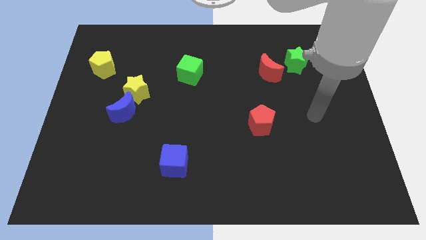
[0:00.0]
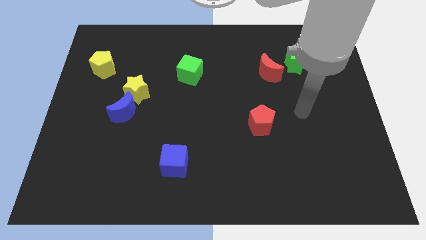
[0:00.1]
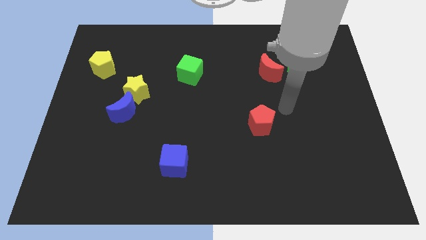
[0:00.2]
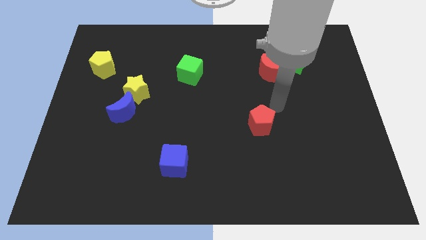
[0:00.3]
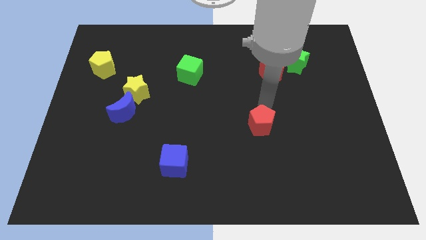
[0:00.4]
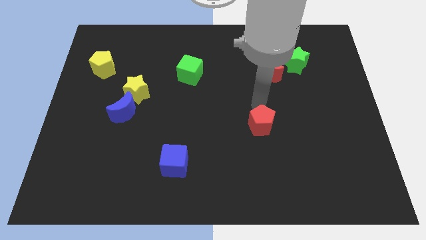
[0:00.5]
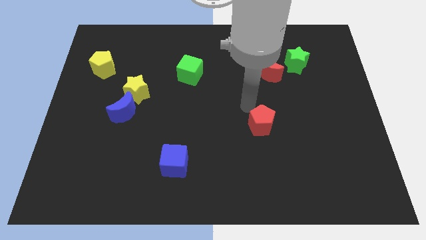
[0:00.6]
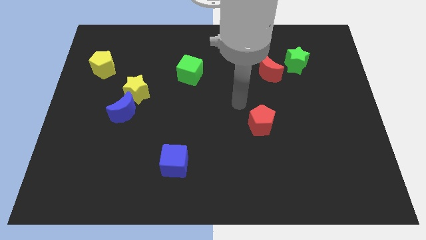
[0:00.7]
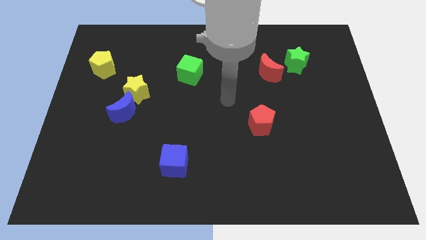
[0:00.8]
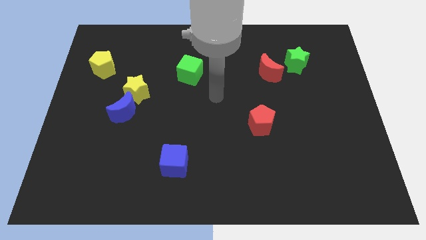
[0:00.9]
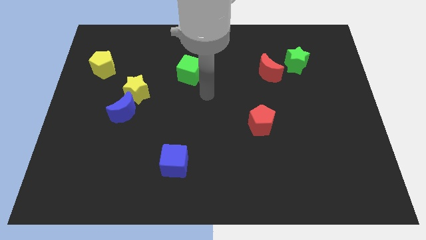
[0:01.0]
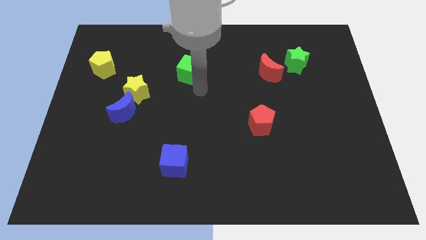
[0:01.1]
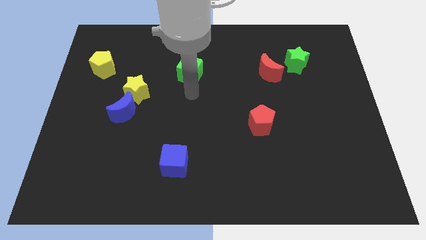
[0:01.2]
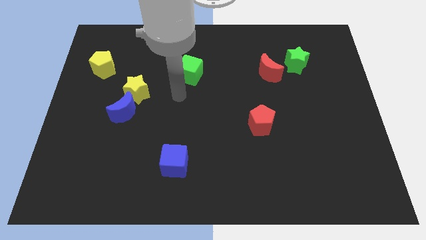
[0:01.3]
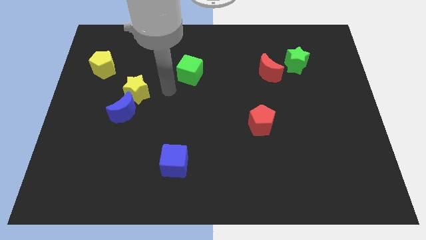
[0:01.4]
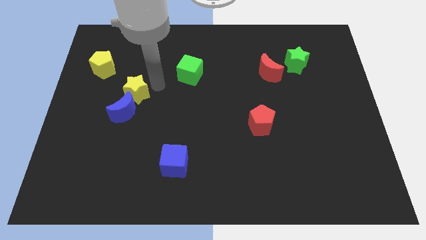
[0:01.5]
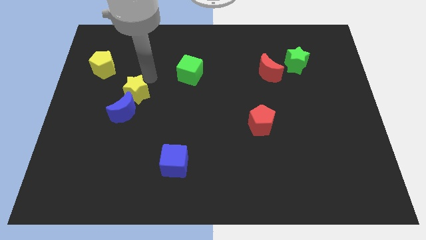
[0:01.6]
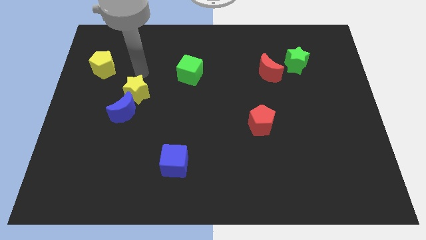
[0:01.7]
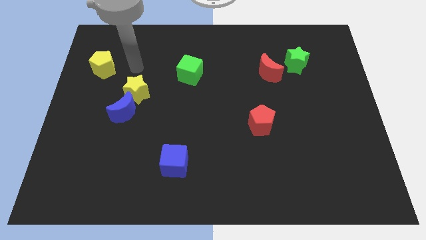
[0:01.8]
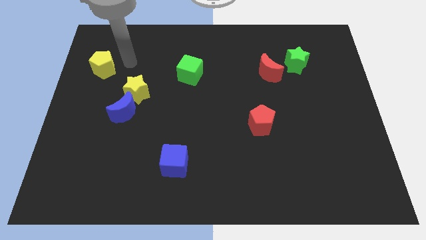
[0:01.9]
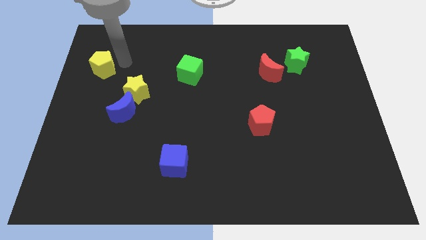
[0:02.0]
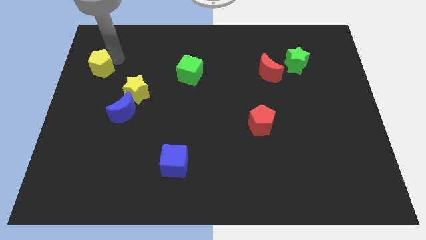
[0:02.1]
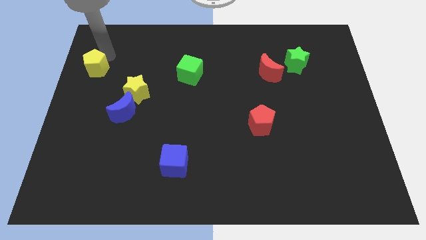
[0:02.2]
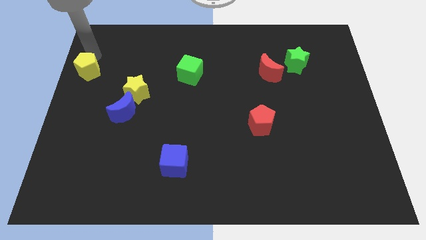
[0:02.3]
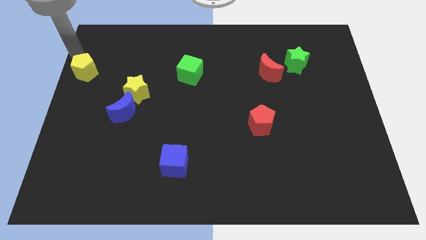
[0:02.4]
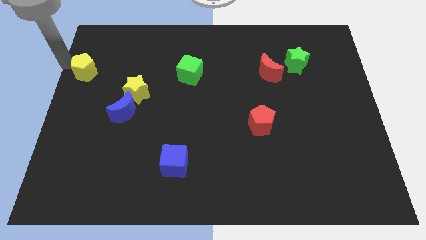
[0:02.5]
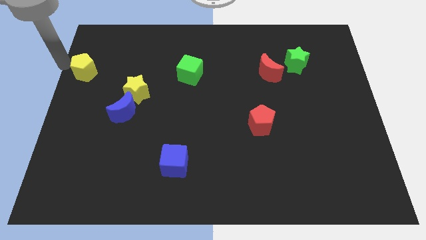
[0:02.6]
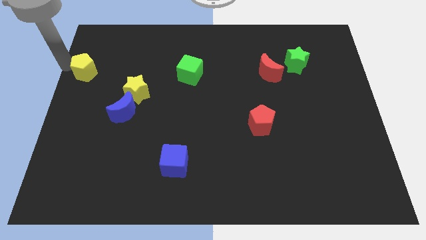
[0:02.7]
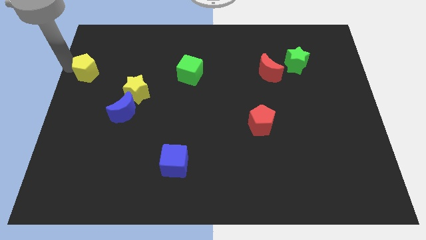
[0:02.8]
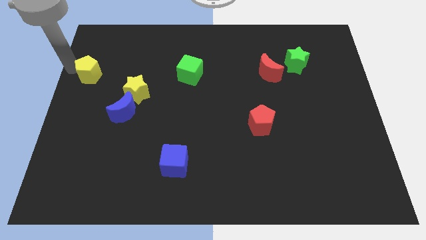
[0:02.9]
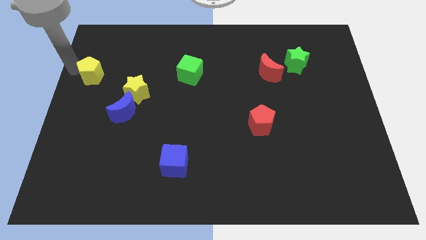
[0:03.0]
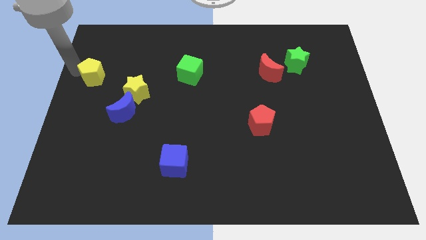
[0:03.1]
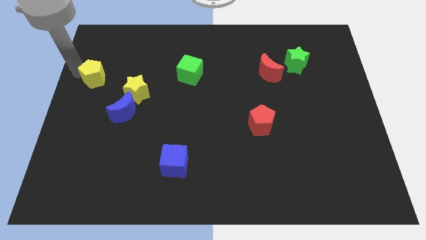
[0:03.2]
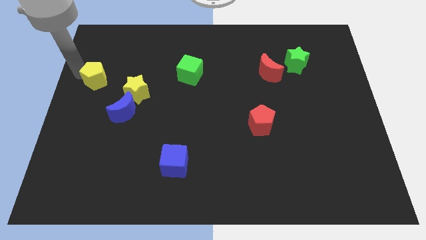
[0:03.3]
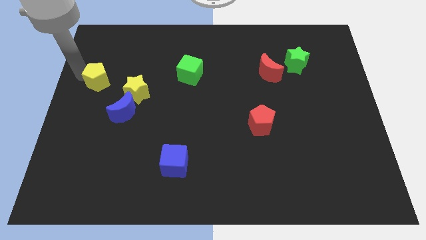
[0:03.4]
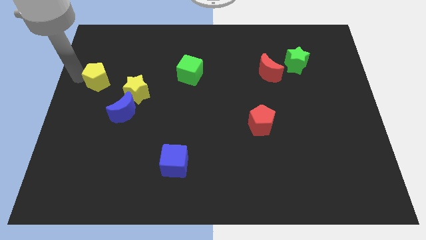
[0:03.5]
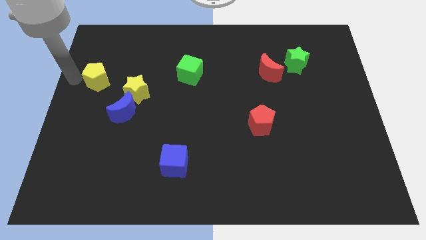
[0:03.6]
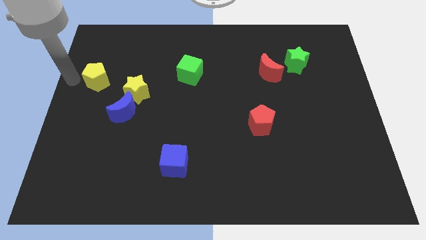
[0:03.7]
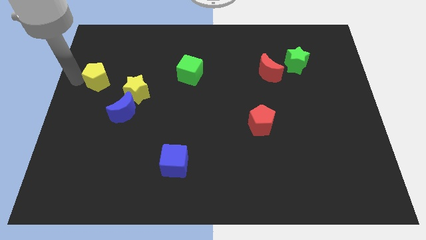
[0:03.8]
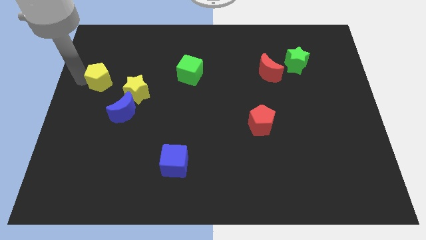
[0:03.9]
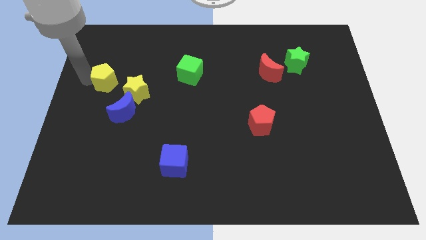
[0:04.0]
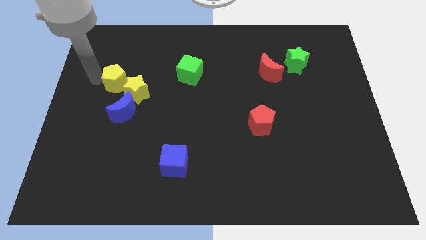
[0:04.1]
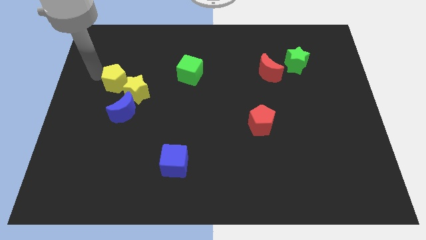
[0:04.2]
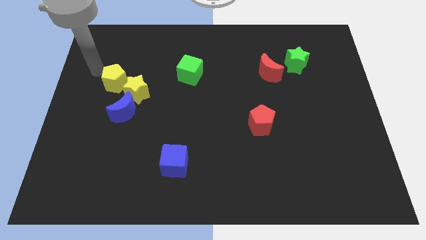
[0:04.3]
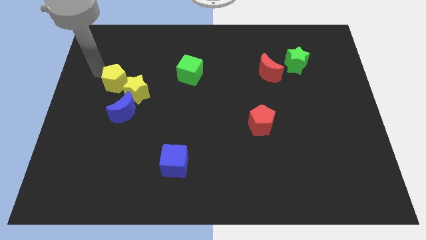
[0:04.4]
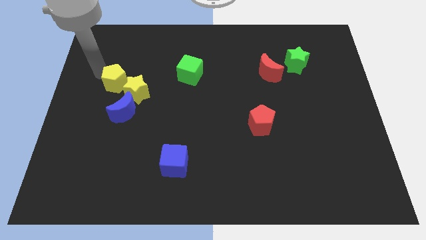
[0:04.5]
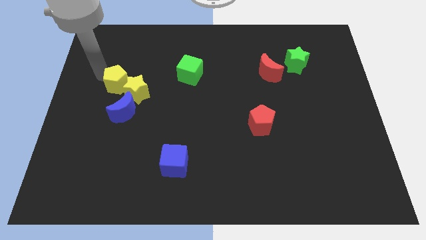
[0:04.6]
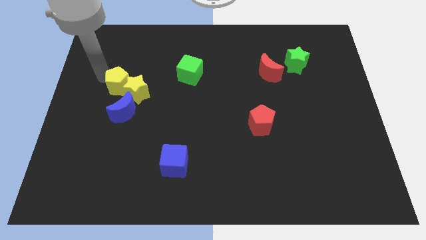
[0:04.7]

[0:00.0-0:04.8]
put the yellow pentagon to the yellow star

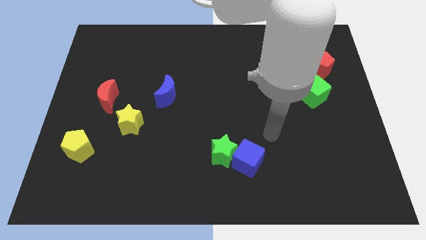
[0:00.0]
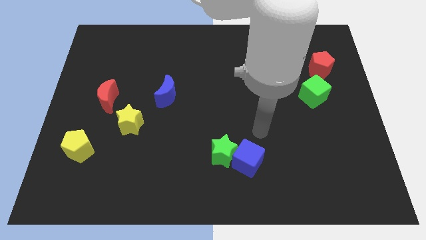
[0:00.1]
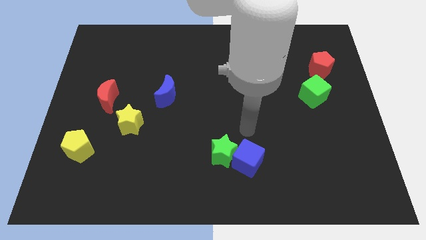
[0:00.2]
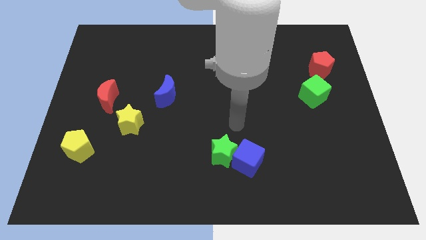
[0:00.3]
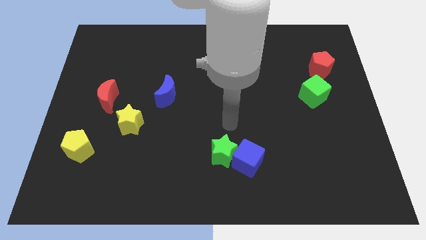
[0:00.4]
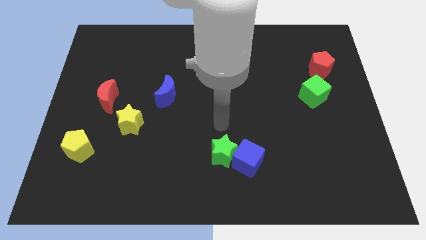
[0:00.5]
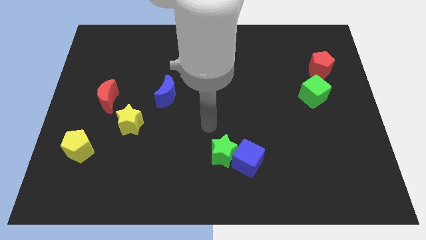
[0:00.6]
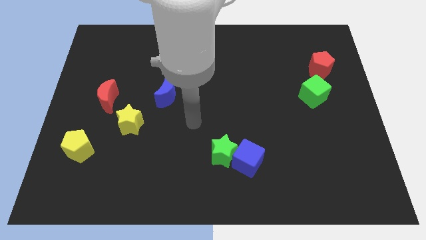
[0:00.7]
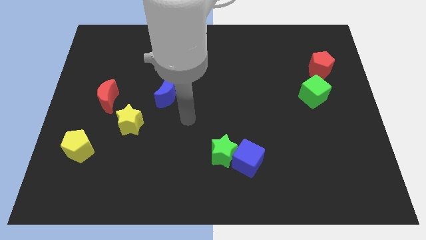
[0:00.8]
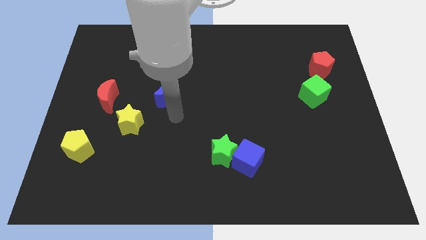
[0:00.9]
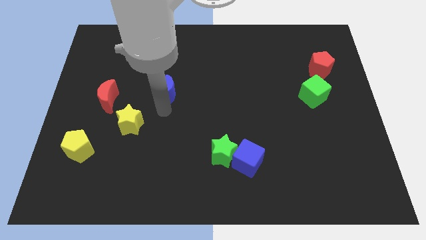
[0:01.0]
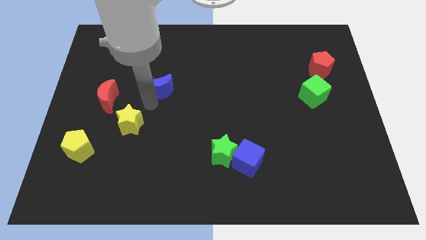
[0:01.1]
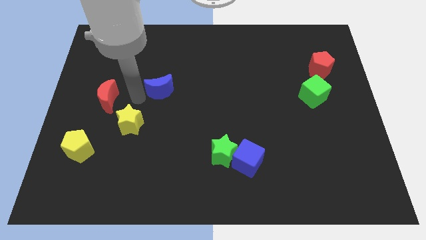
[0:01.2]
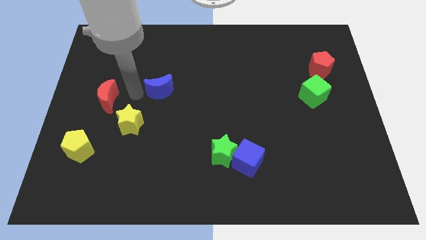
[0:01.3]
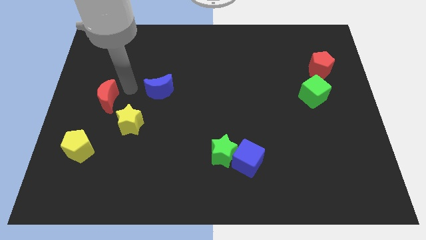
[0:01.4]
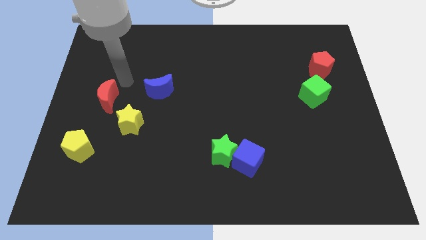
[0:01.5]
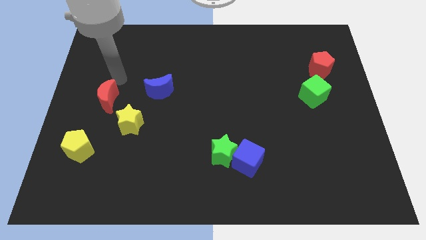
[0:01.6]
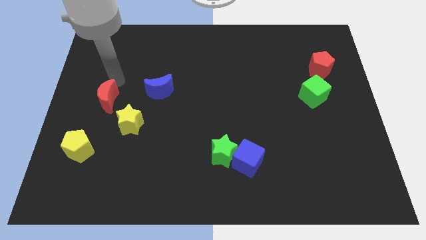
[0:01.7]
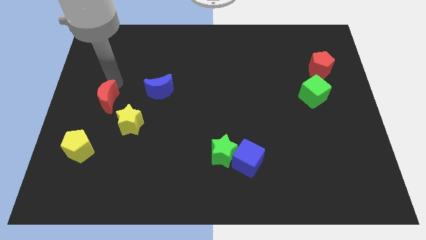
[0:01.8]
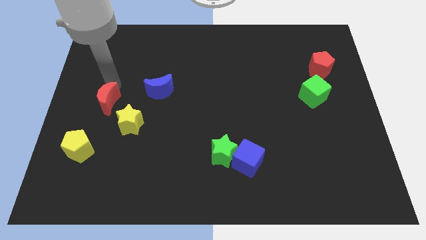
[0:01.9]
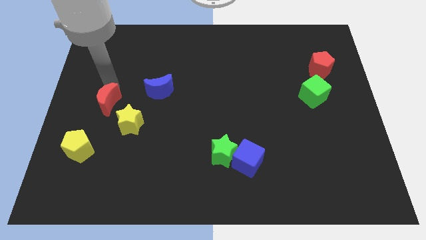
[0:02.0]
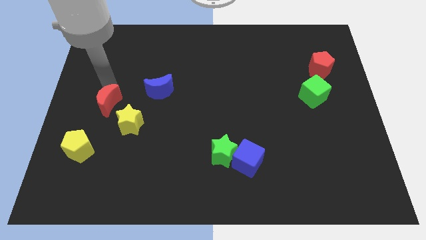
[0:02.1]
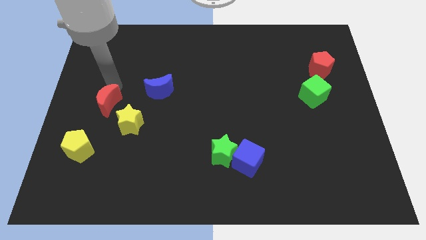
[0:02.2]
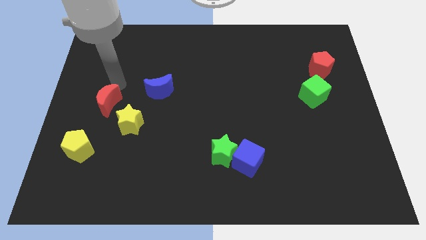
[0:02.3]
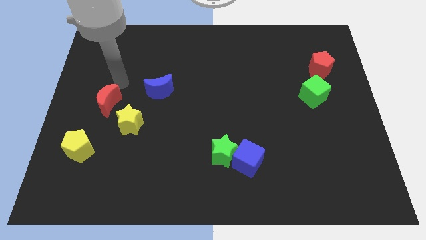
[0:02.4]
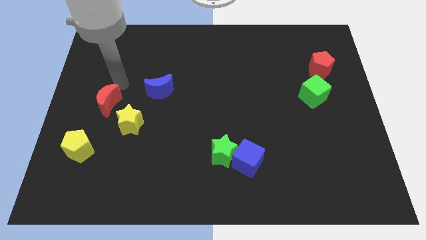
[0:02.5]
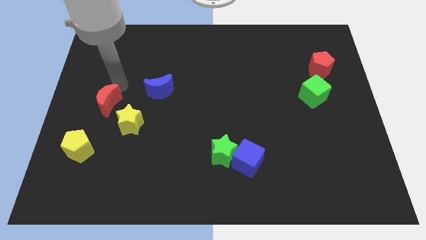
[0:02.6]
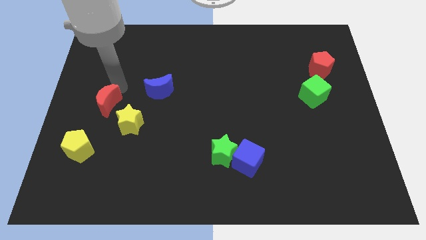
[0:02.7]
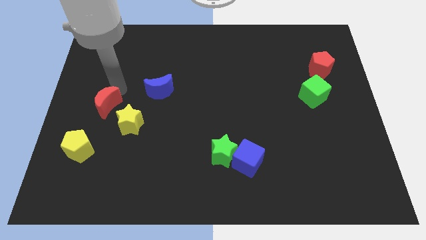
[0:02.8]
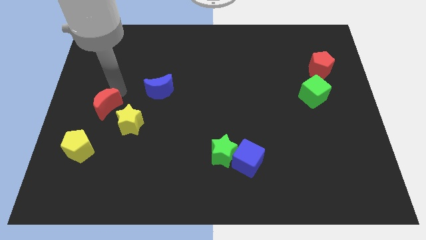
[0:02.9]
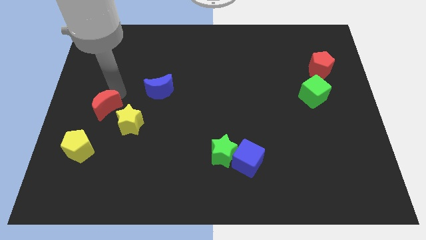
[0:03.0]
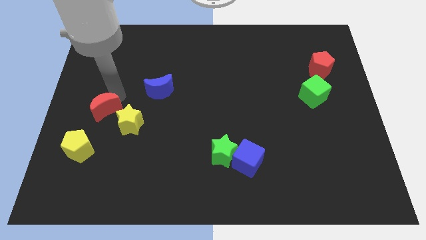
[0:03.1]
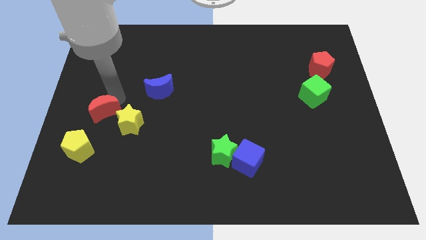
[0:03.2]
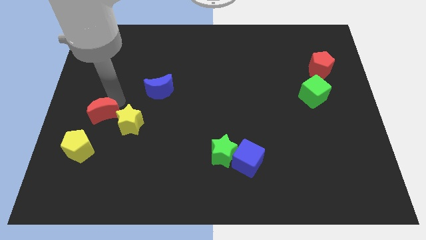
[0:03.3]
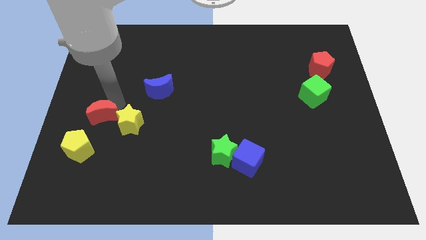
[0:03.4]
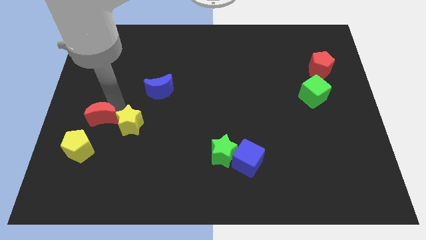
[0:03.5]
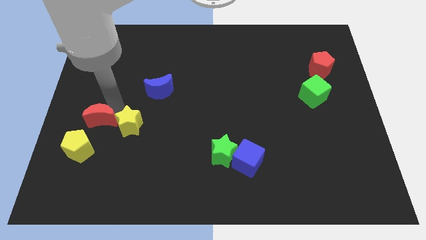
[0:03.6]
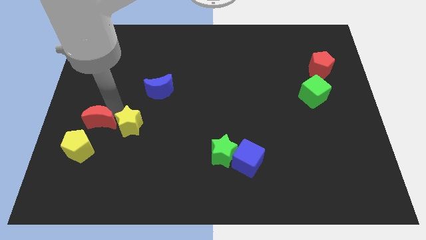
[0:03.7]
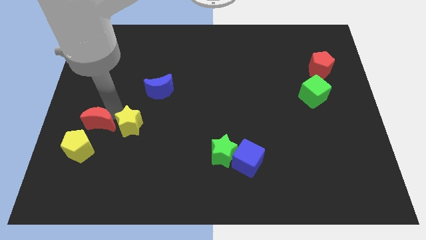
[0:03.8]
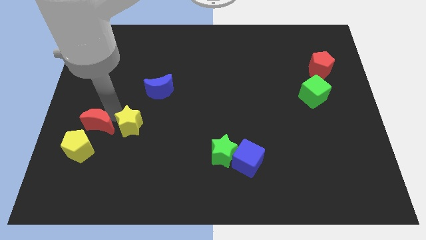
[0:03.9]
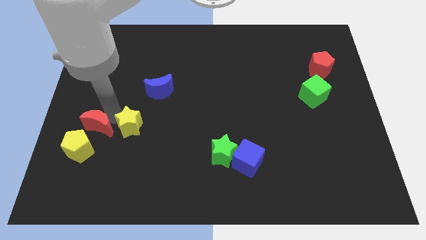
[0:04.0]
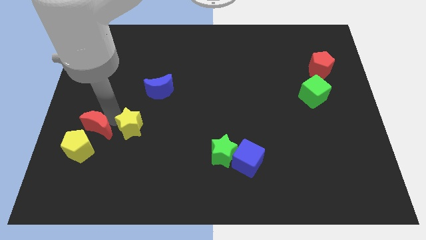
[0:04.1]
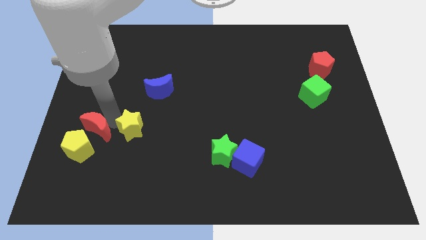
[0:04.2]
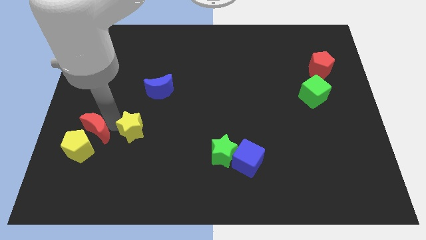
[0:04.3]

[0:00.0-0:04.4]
put the red moon close to the yellow pentagon
